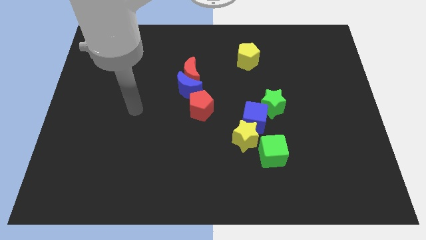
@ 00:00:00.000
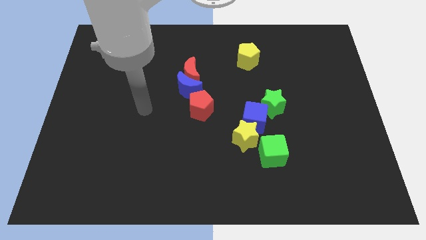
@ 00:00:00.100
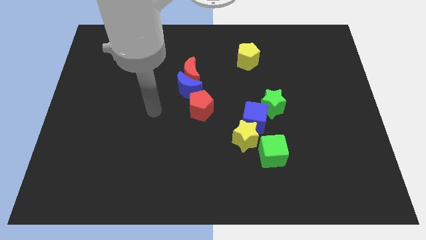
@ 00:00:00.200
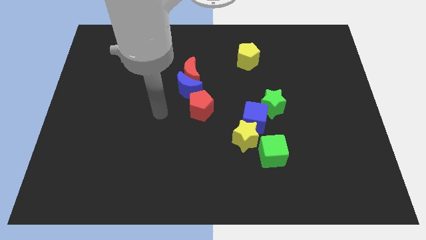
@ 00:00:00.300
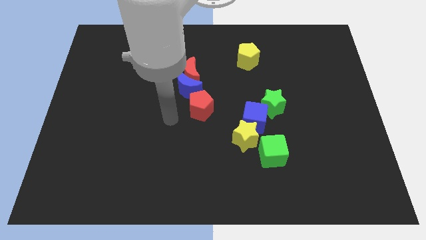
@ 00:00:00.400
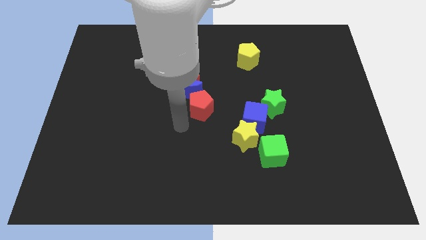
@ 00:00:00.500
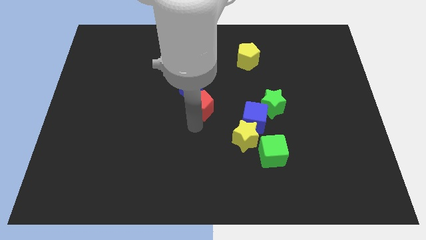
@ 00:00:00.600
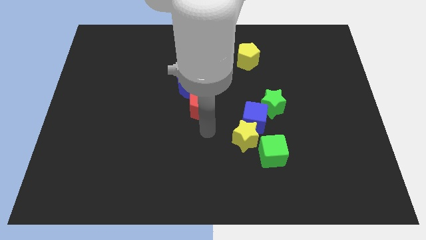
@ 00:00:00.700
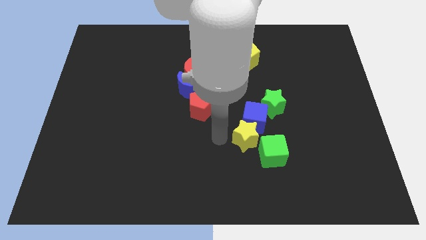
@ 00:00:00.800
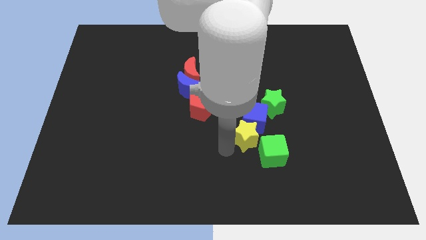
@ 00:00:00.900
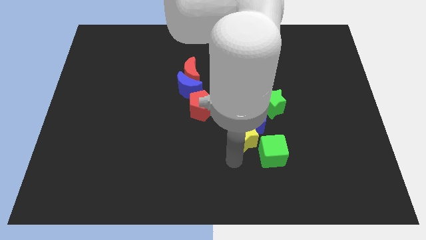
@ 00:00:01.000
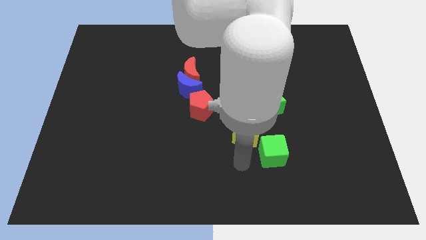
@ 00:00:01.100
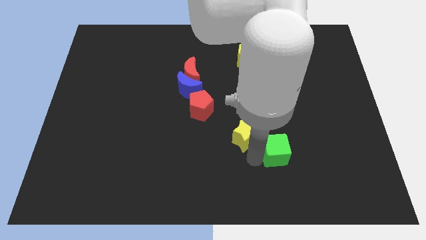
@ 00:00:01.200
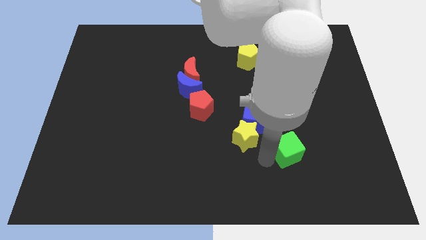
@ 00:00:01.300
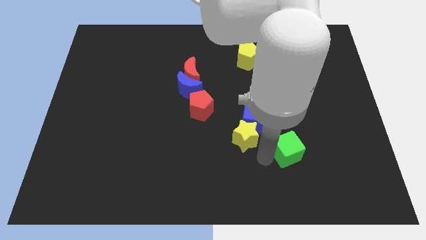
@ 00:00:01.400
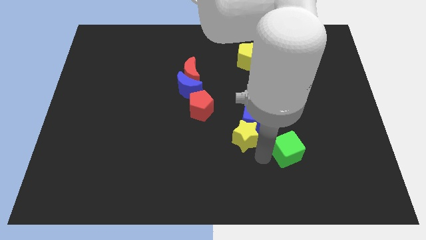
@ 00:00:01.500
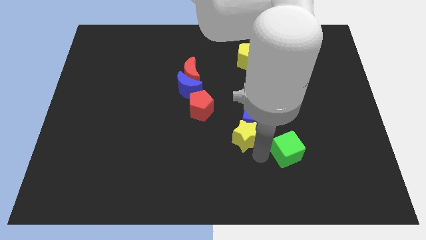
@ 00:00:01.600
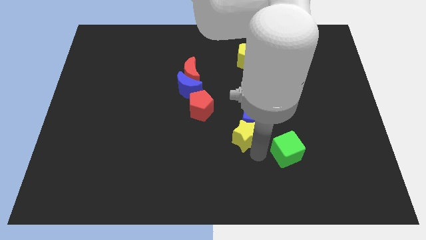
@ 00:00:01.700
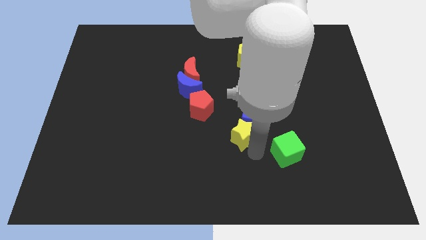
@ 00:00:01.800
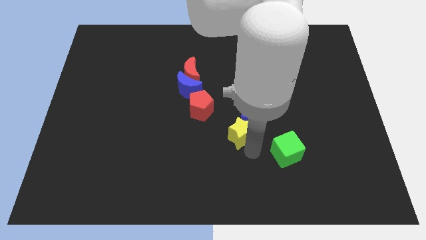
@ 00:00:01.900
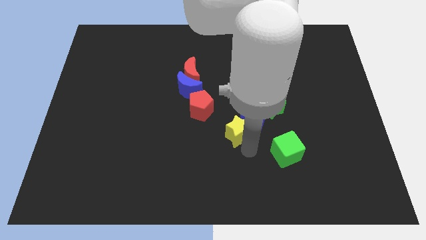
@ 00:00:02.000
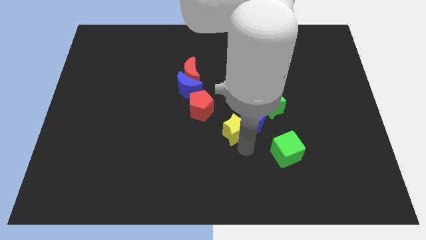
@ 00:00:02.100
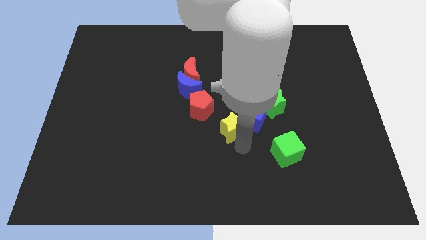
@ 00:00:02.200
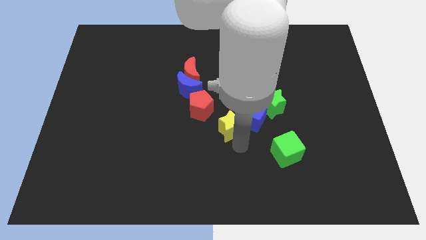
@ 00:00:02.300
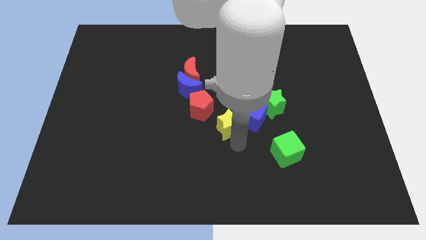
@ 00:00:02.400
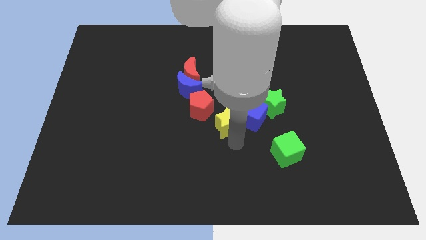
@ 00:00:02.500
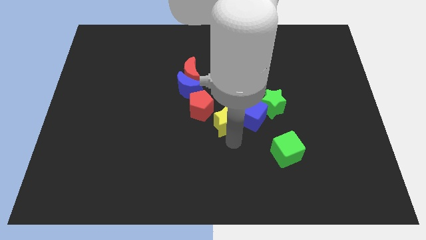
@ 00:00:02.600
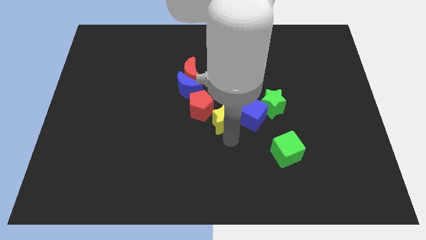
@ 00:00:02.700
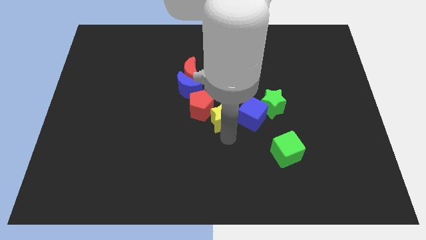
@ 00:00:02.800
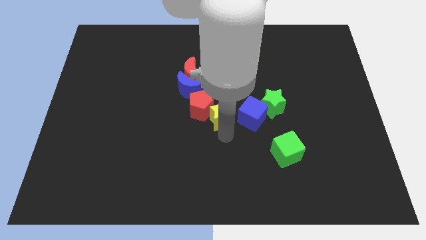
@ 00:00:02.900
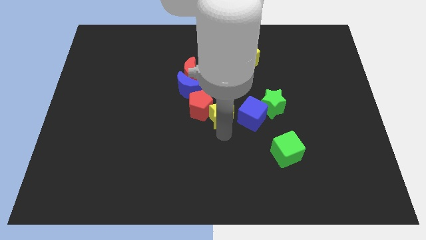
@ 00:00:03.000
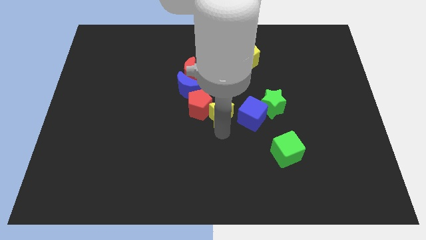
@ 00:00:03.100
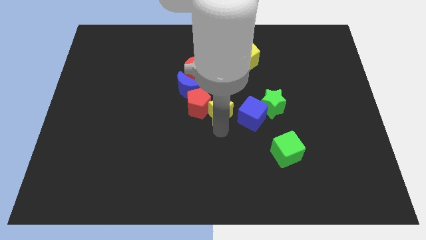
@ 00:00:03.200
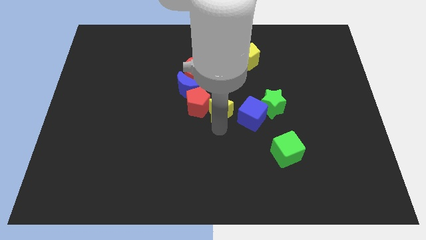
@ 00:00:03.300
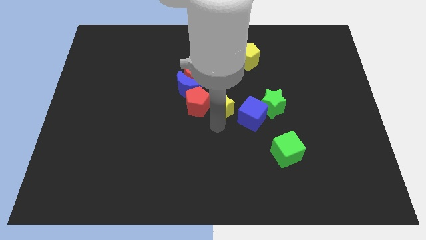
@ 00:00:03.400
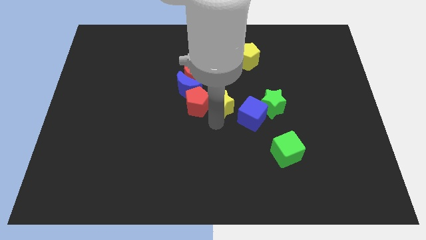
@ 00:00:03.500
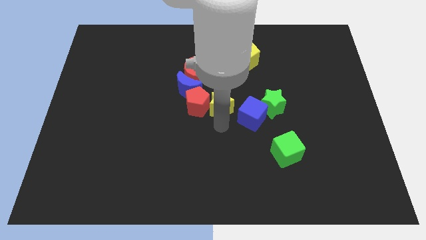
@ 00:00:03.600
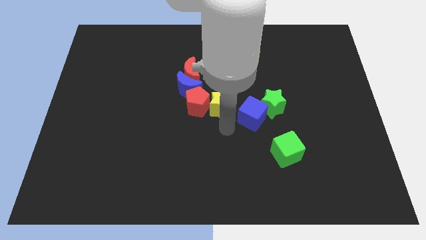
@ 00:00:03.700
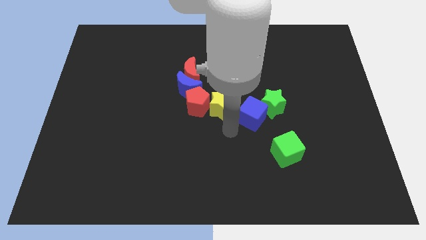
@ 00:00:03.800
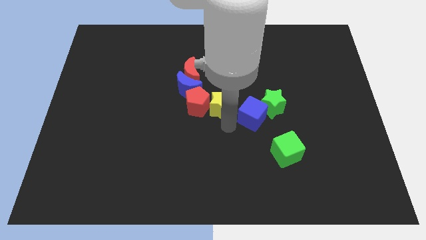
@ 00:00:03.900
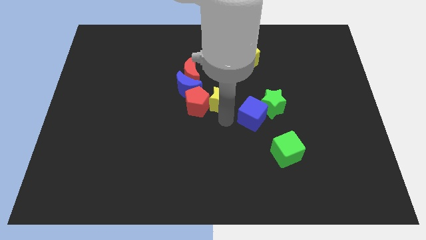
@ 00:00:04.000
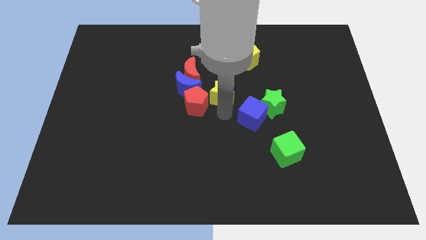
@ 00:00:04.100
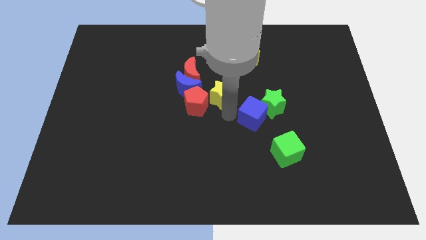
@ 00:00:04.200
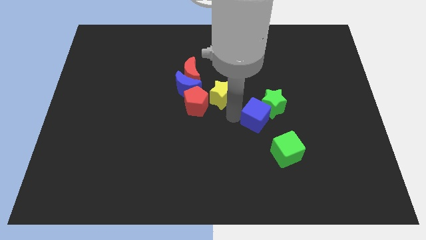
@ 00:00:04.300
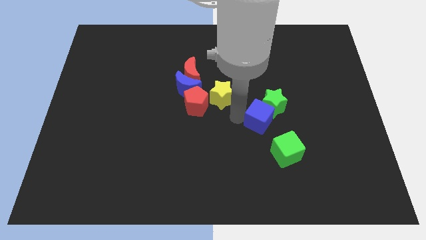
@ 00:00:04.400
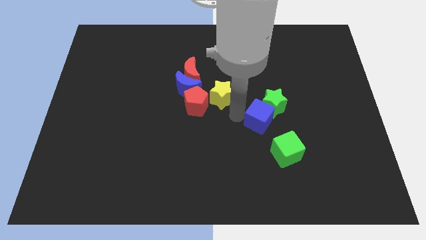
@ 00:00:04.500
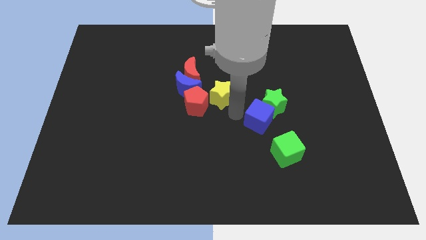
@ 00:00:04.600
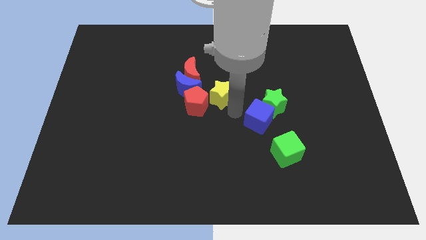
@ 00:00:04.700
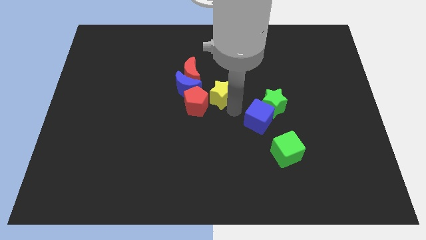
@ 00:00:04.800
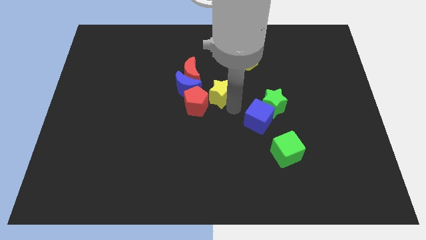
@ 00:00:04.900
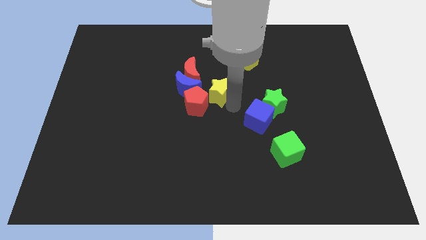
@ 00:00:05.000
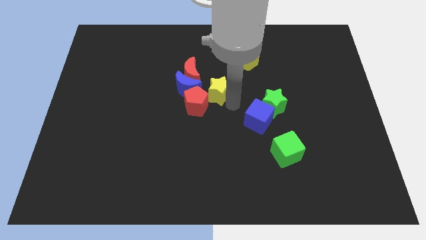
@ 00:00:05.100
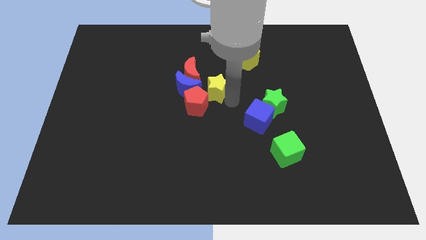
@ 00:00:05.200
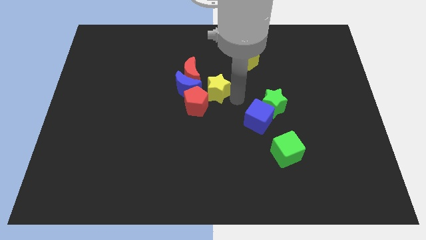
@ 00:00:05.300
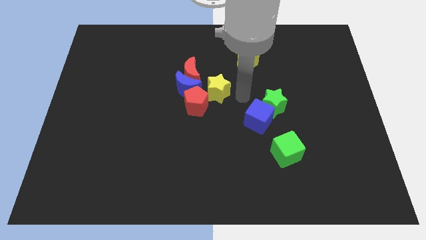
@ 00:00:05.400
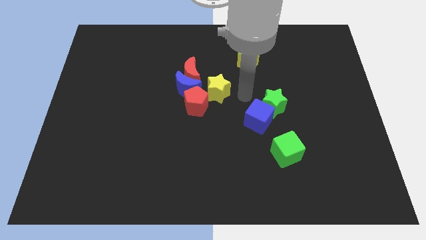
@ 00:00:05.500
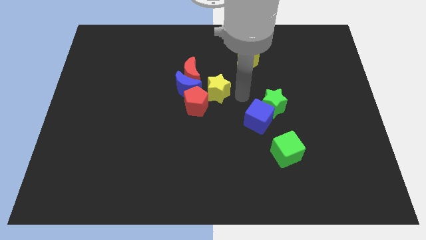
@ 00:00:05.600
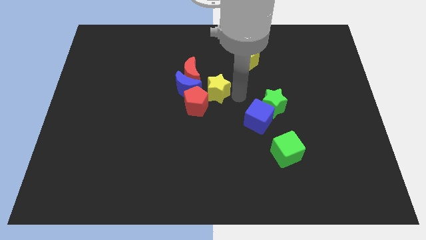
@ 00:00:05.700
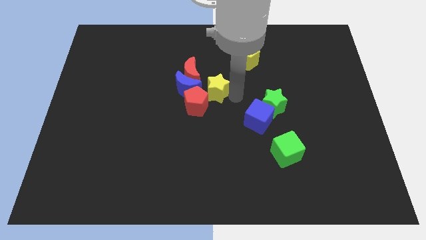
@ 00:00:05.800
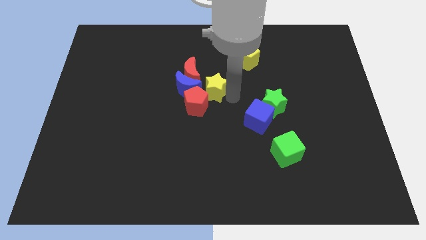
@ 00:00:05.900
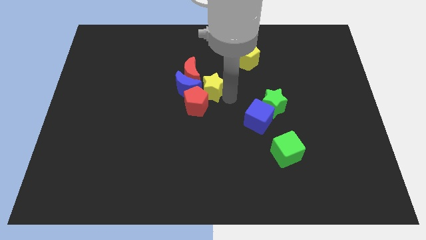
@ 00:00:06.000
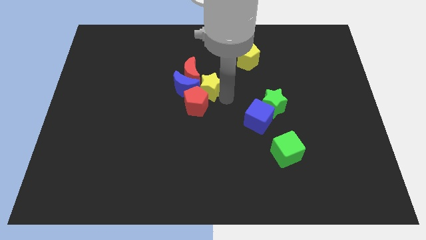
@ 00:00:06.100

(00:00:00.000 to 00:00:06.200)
move the yellow star towards the blue moon

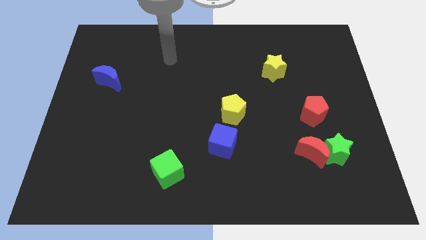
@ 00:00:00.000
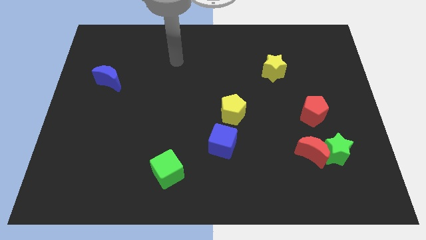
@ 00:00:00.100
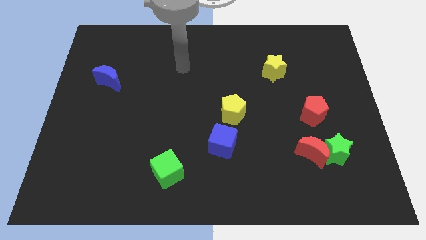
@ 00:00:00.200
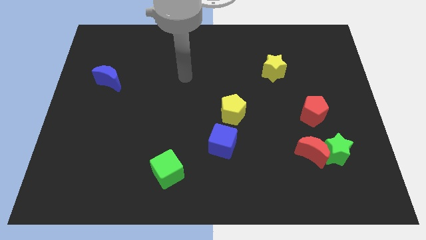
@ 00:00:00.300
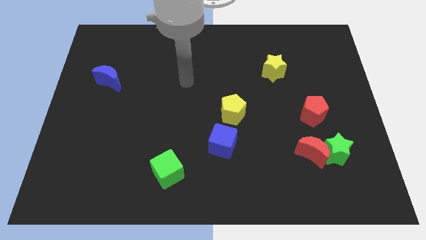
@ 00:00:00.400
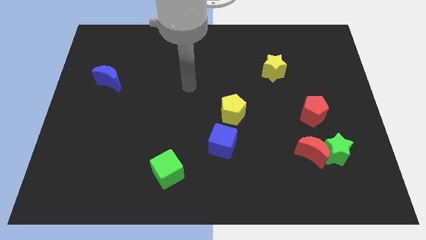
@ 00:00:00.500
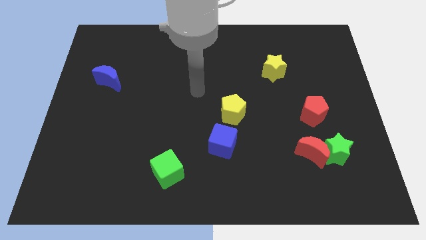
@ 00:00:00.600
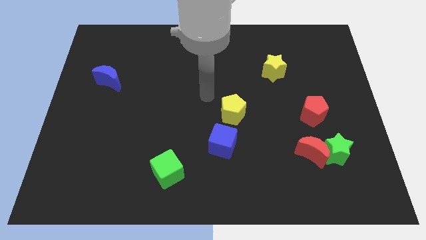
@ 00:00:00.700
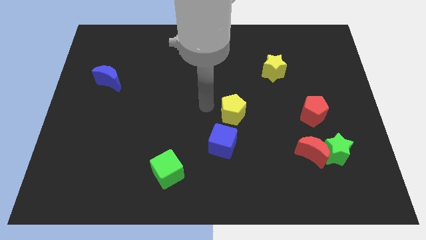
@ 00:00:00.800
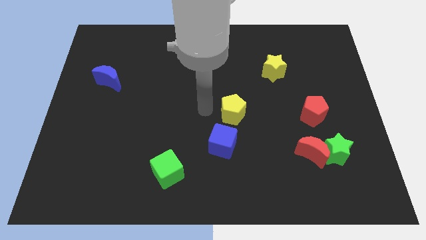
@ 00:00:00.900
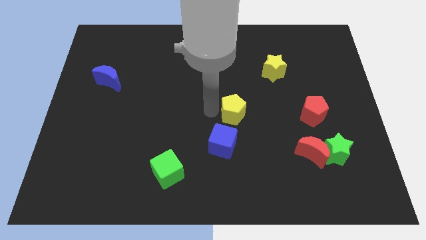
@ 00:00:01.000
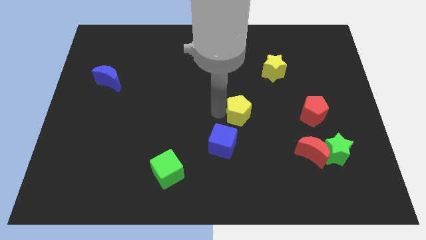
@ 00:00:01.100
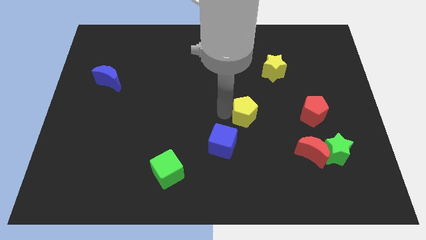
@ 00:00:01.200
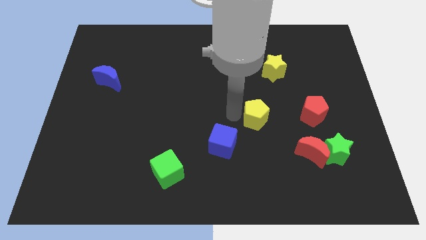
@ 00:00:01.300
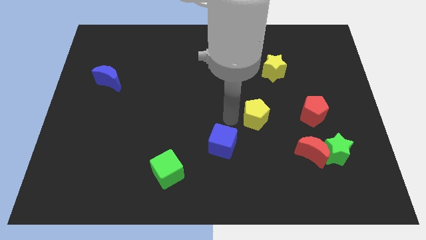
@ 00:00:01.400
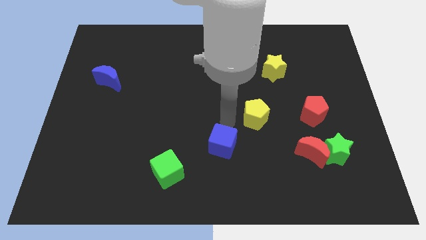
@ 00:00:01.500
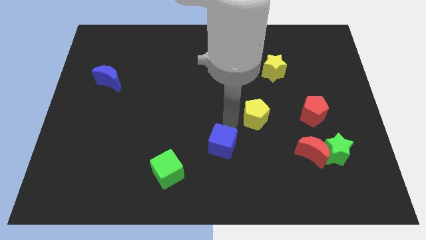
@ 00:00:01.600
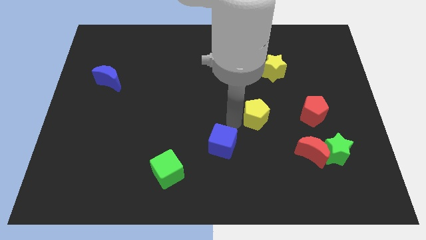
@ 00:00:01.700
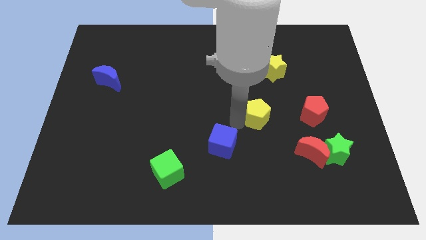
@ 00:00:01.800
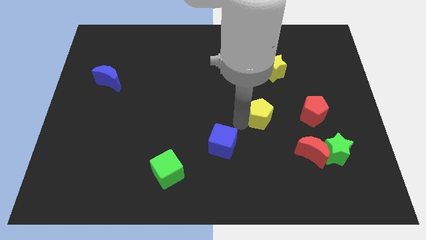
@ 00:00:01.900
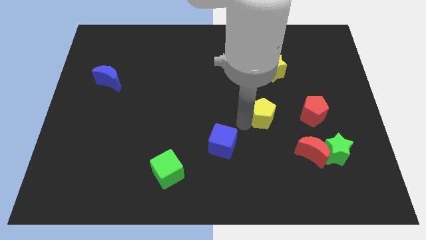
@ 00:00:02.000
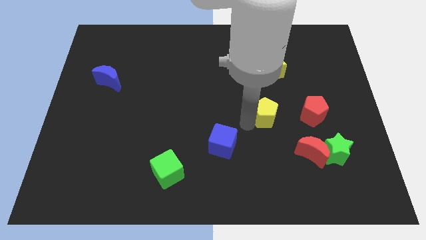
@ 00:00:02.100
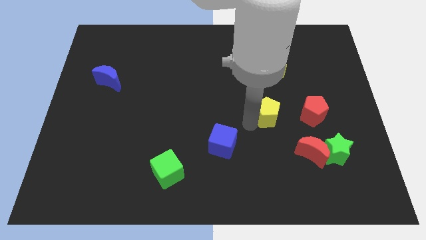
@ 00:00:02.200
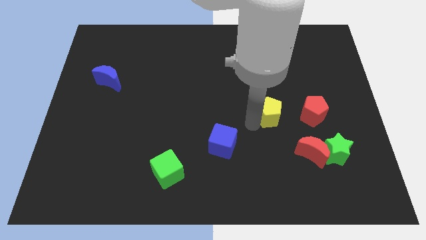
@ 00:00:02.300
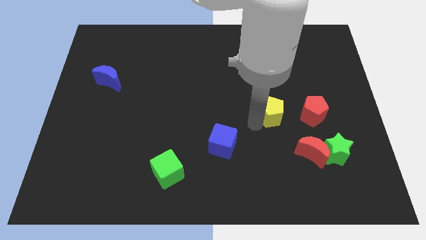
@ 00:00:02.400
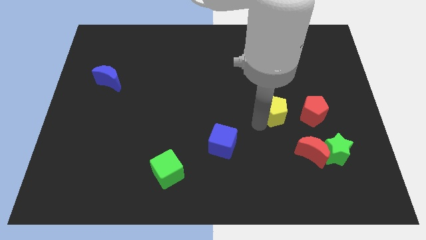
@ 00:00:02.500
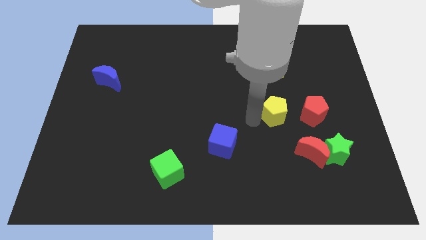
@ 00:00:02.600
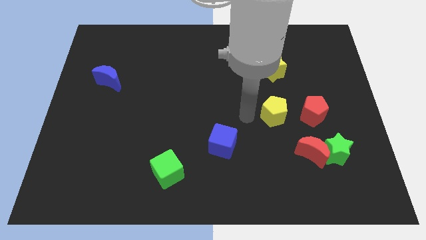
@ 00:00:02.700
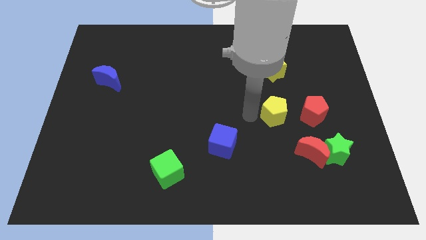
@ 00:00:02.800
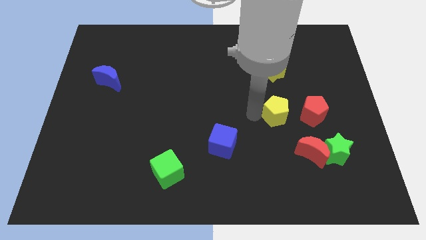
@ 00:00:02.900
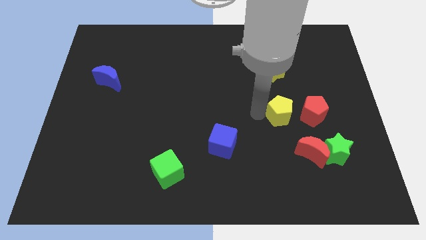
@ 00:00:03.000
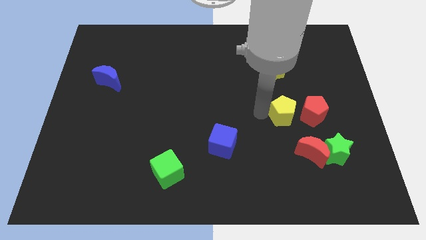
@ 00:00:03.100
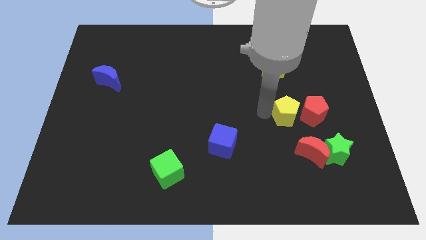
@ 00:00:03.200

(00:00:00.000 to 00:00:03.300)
put the yellow pentagon next to the red pentagon
